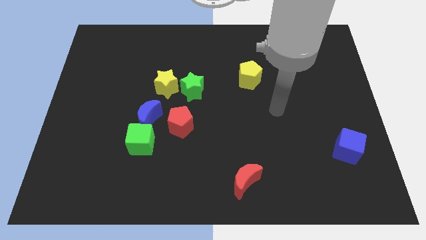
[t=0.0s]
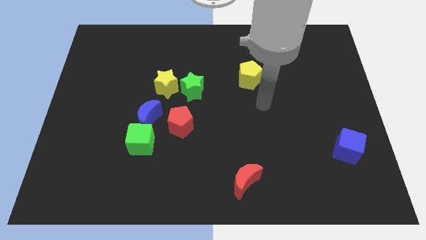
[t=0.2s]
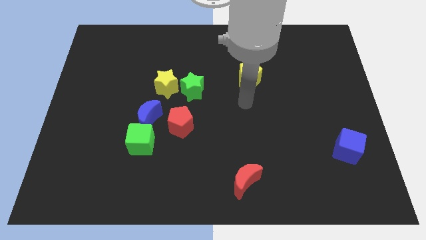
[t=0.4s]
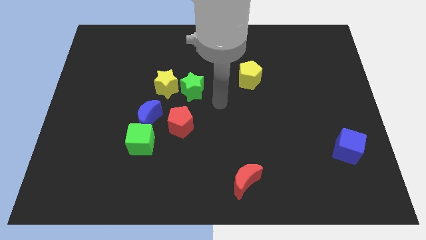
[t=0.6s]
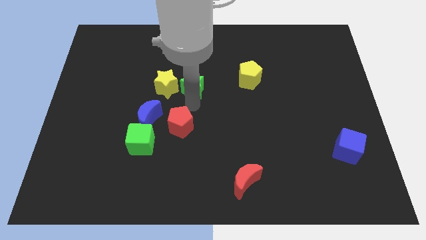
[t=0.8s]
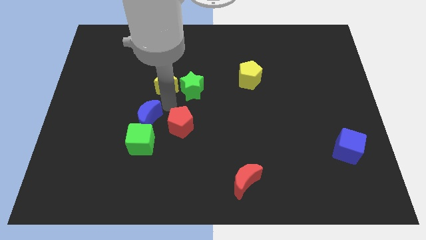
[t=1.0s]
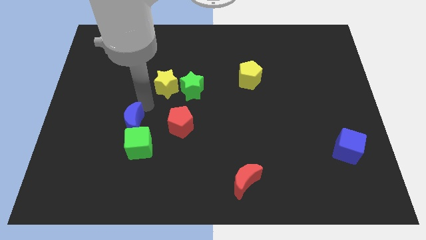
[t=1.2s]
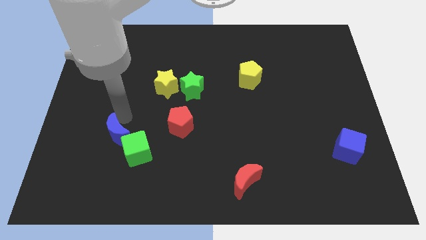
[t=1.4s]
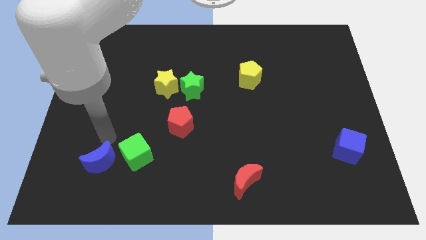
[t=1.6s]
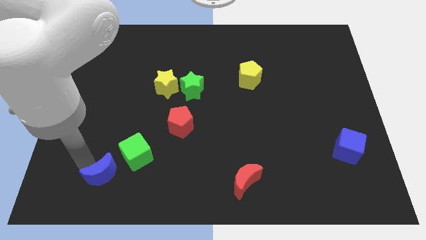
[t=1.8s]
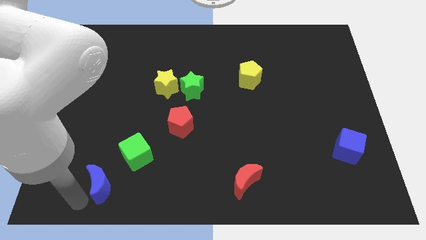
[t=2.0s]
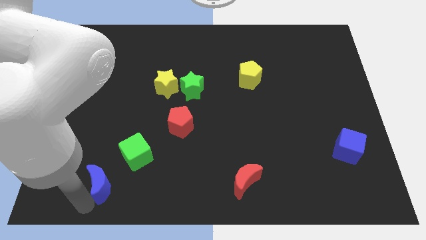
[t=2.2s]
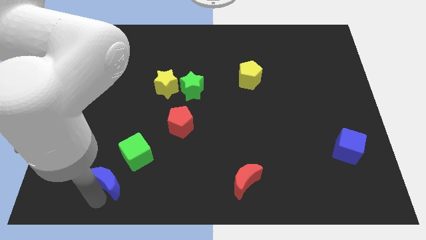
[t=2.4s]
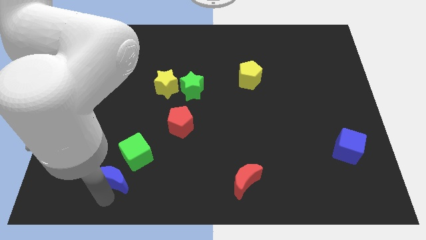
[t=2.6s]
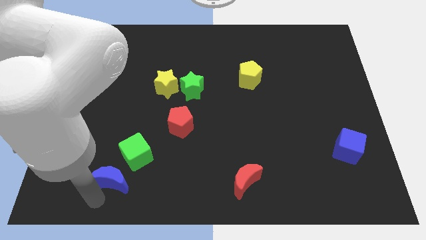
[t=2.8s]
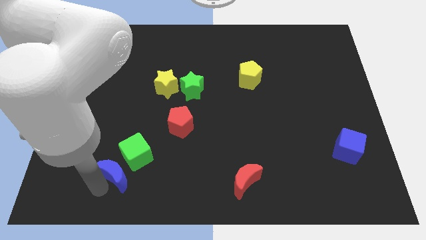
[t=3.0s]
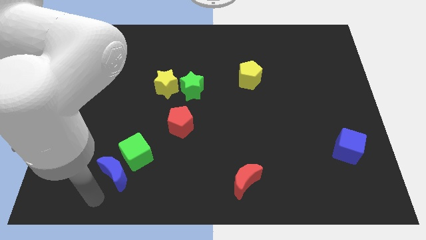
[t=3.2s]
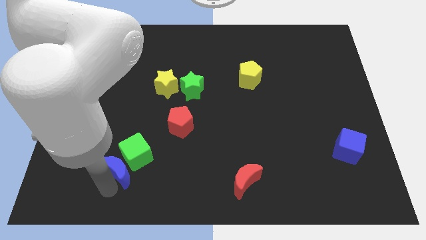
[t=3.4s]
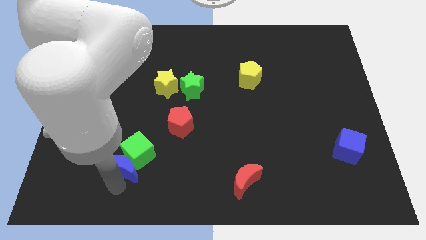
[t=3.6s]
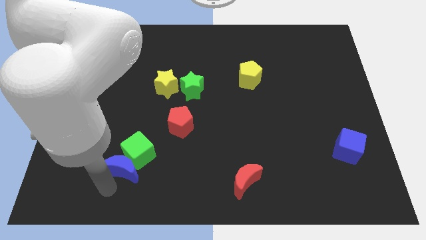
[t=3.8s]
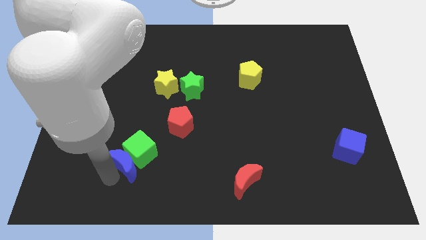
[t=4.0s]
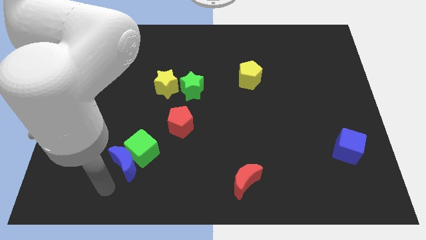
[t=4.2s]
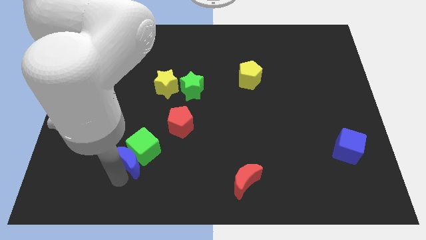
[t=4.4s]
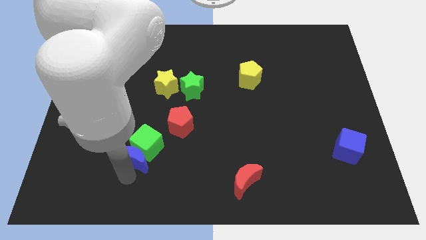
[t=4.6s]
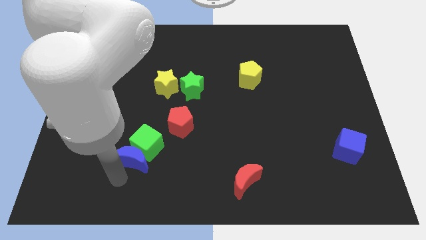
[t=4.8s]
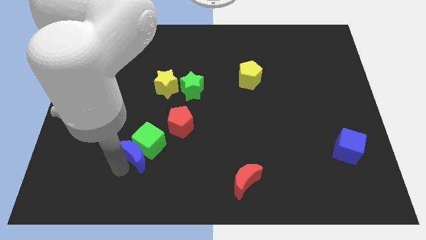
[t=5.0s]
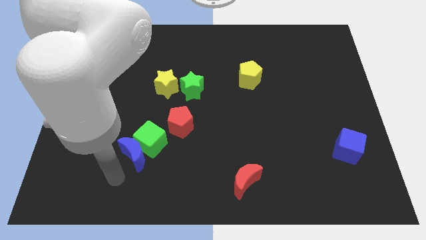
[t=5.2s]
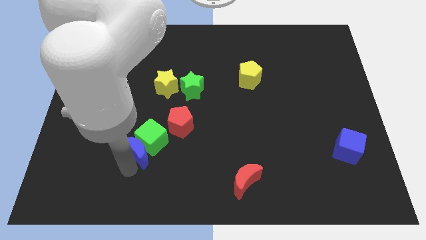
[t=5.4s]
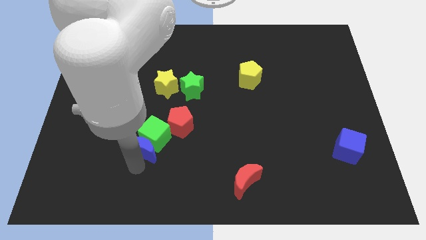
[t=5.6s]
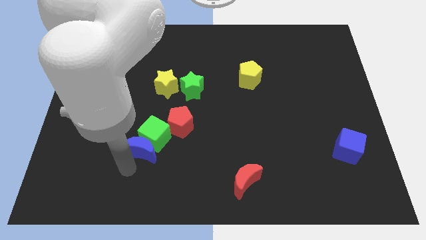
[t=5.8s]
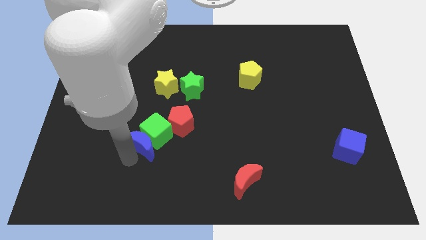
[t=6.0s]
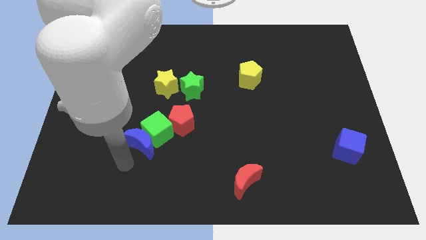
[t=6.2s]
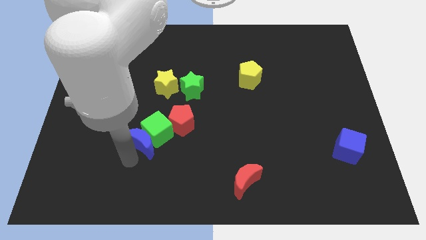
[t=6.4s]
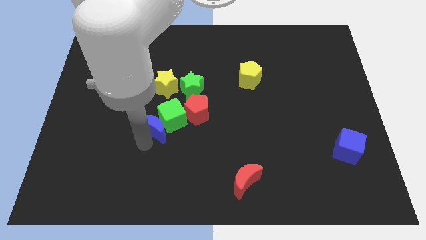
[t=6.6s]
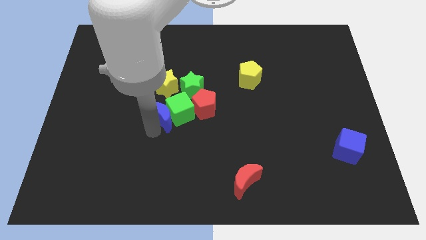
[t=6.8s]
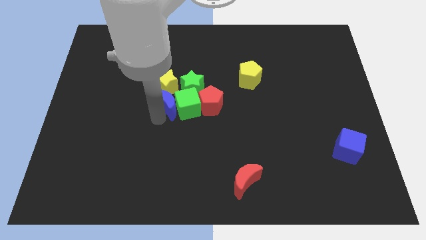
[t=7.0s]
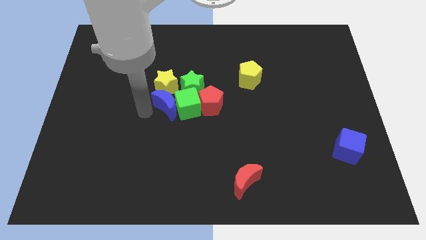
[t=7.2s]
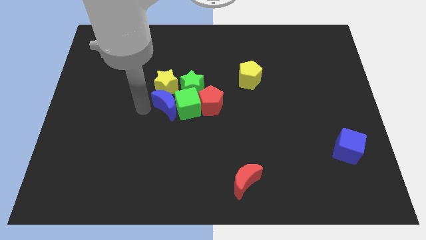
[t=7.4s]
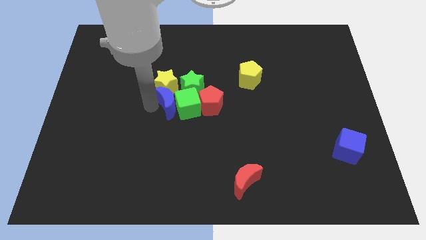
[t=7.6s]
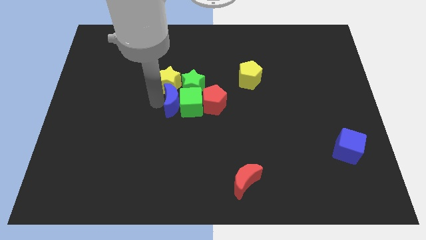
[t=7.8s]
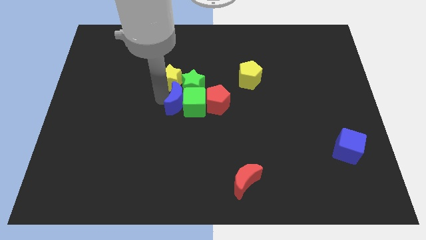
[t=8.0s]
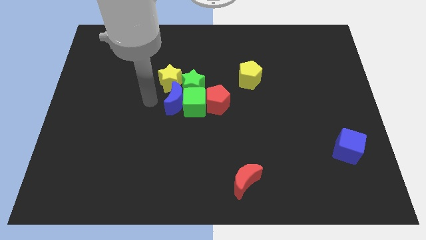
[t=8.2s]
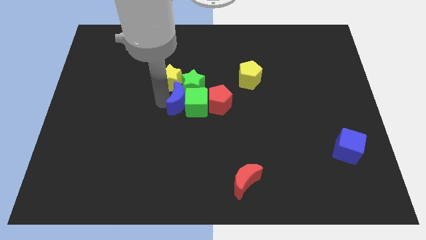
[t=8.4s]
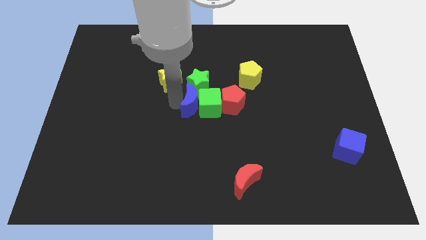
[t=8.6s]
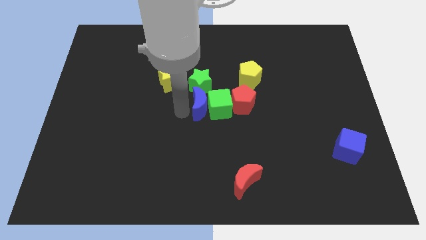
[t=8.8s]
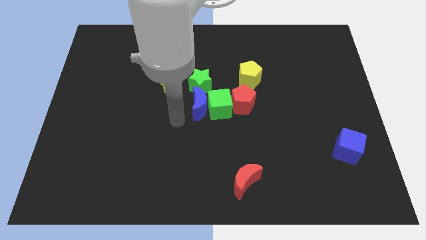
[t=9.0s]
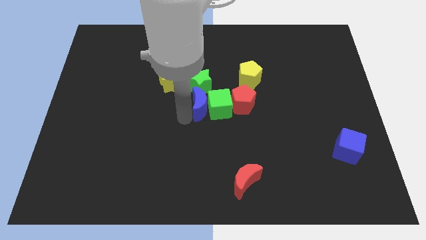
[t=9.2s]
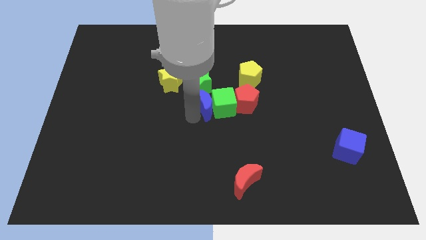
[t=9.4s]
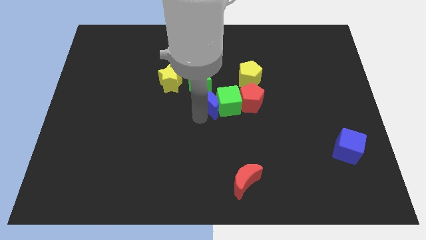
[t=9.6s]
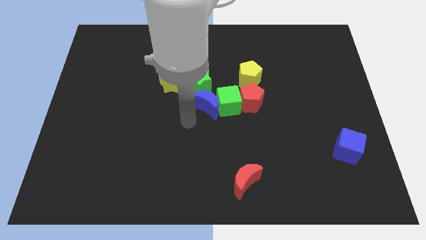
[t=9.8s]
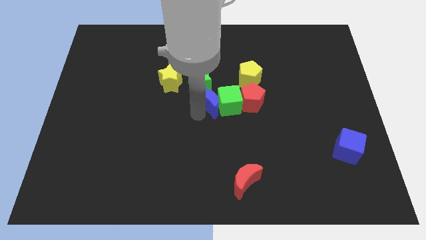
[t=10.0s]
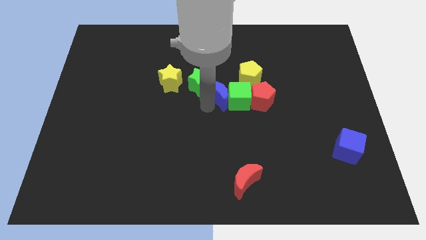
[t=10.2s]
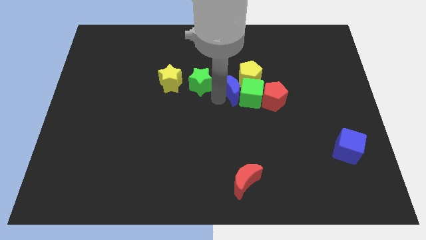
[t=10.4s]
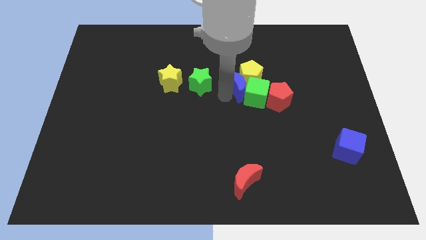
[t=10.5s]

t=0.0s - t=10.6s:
slide the blue moon next to the yellow pentagon

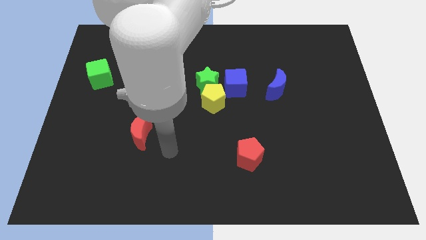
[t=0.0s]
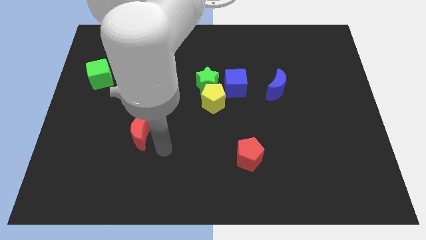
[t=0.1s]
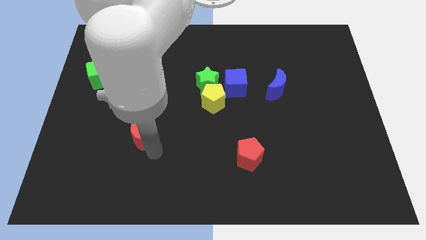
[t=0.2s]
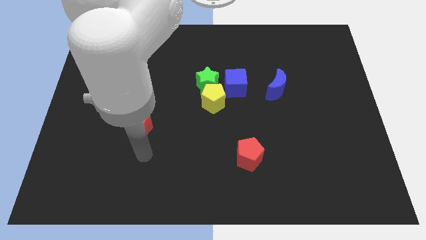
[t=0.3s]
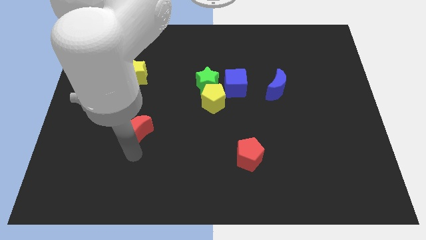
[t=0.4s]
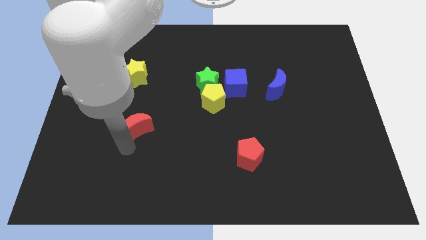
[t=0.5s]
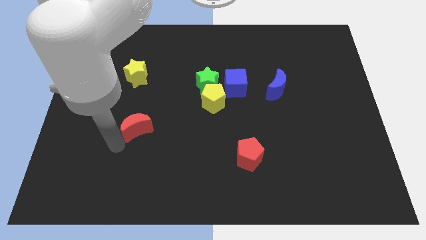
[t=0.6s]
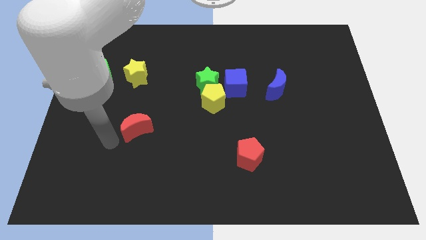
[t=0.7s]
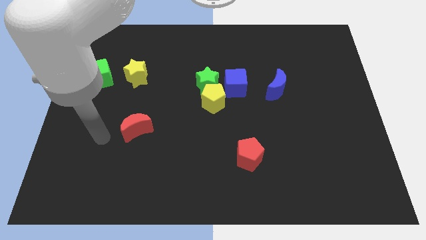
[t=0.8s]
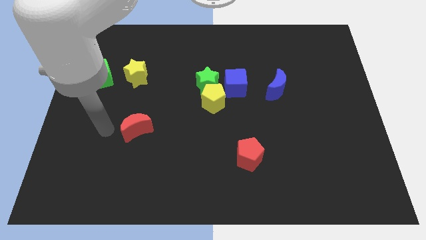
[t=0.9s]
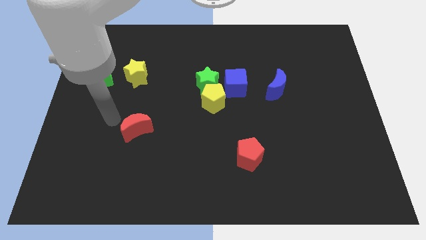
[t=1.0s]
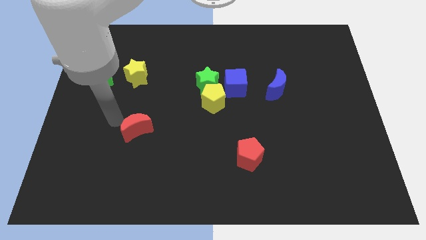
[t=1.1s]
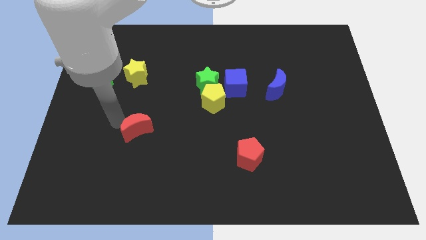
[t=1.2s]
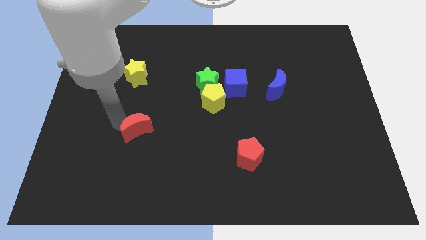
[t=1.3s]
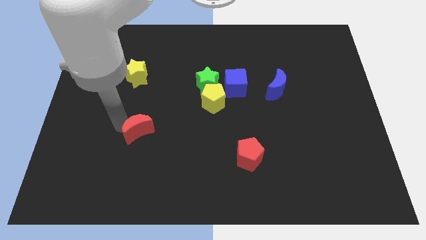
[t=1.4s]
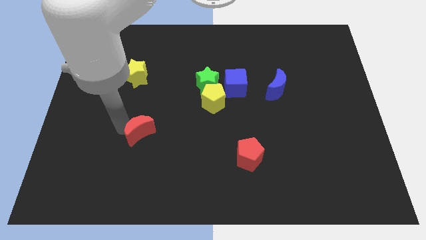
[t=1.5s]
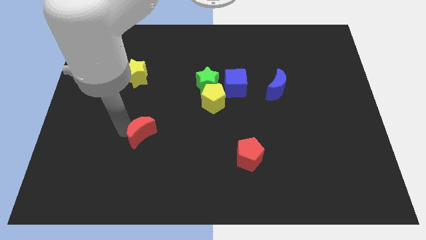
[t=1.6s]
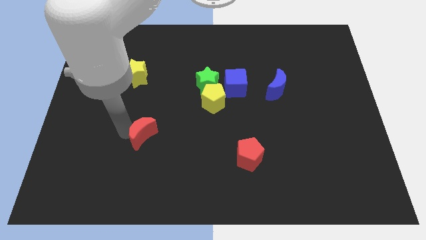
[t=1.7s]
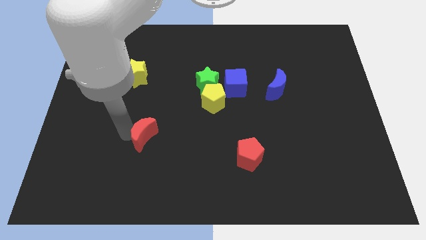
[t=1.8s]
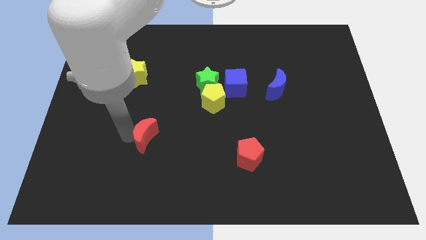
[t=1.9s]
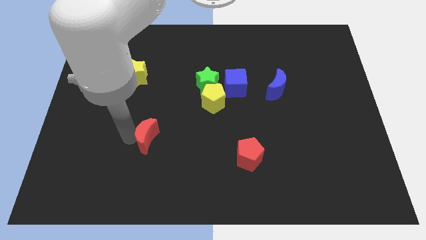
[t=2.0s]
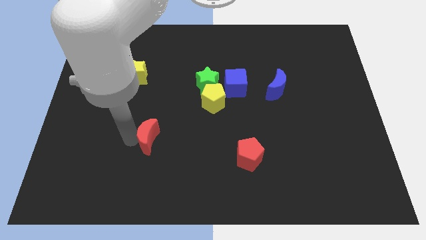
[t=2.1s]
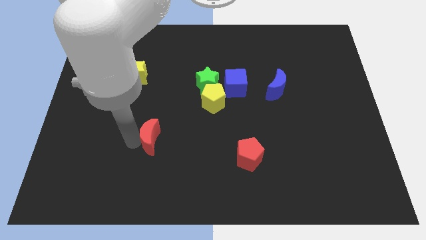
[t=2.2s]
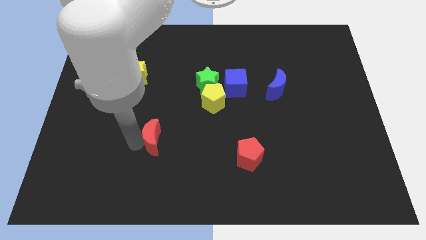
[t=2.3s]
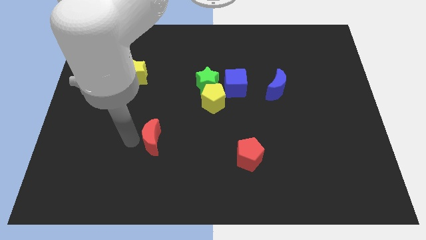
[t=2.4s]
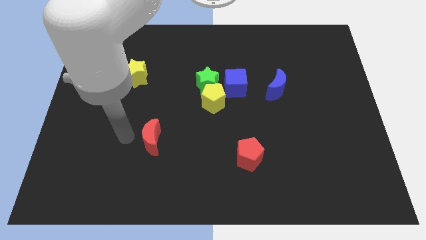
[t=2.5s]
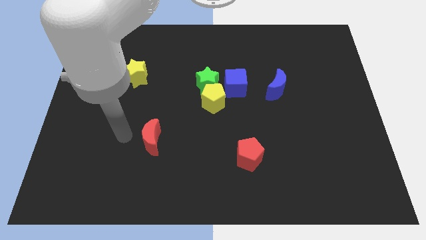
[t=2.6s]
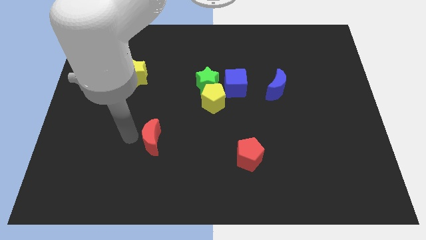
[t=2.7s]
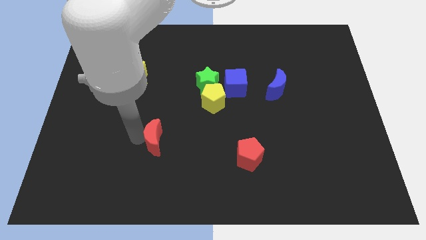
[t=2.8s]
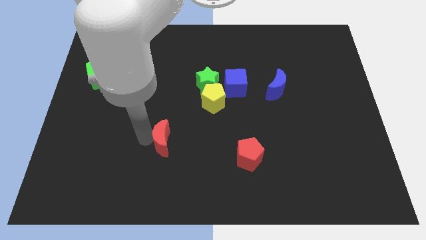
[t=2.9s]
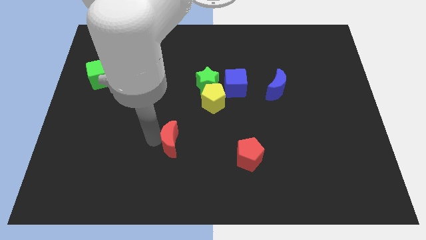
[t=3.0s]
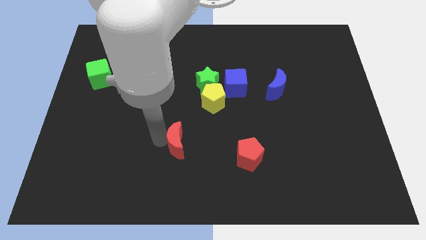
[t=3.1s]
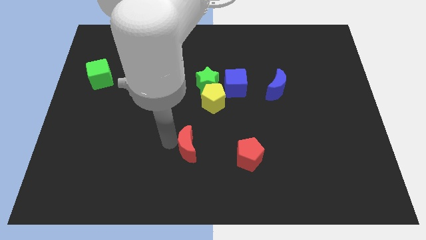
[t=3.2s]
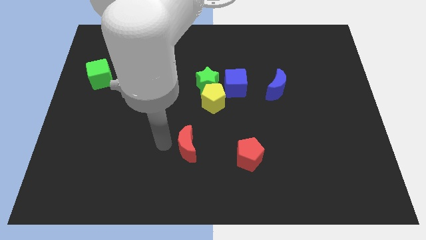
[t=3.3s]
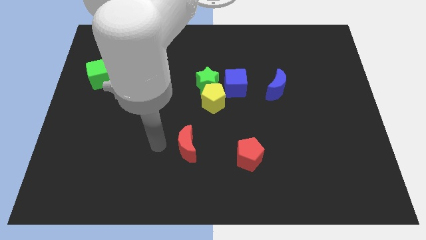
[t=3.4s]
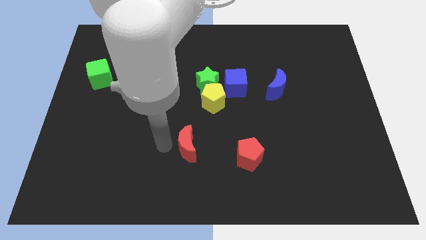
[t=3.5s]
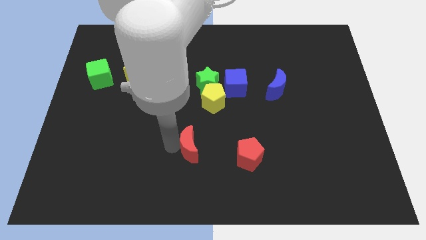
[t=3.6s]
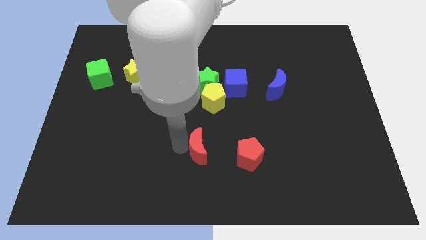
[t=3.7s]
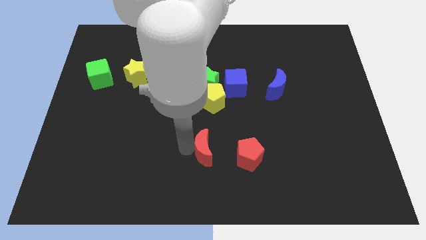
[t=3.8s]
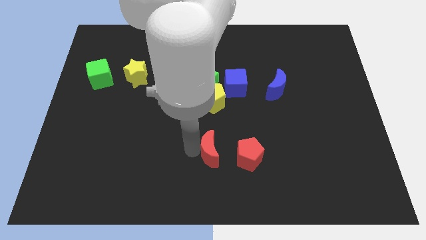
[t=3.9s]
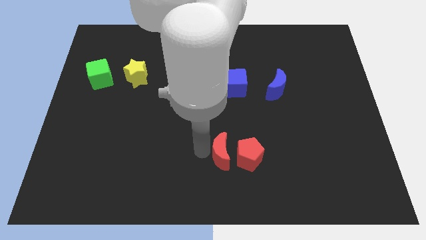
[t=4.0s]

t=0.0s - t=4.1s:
put the red moon close to the red pentagon
